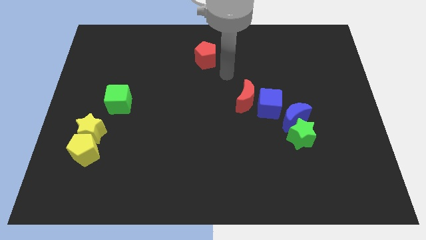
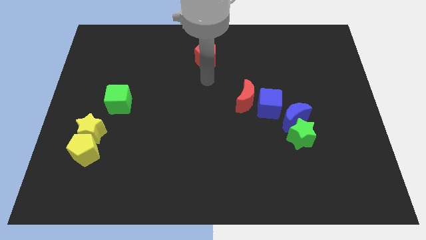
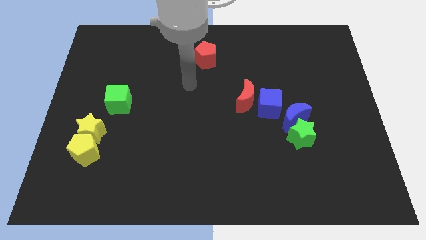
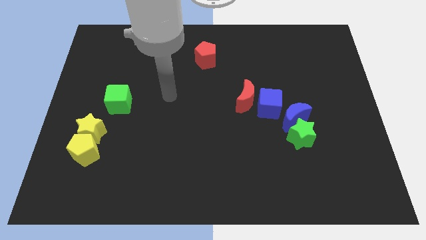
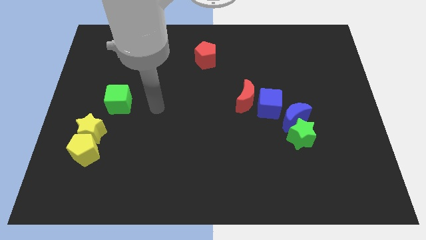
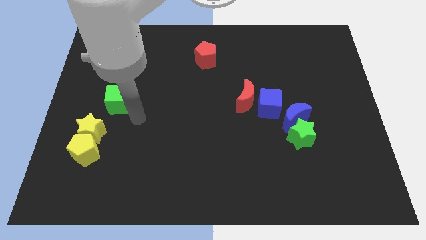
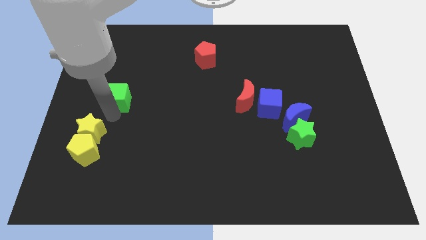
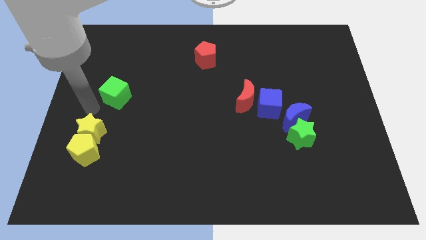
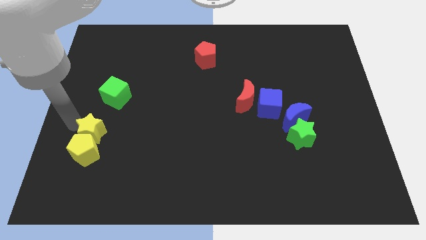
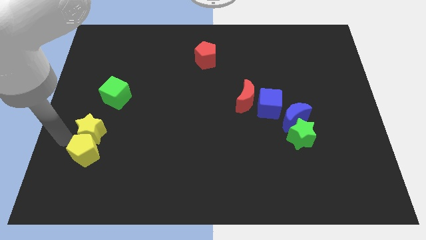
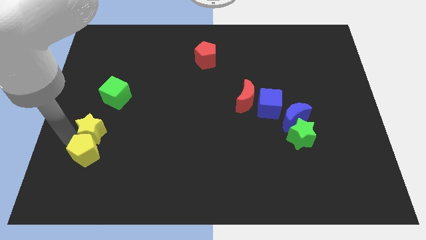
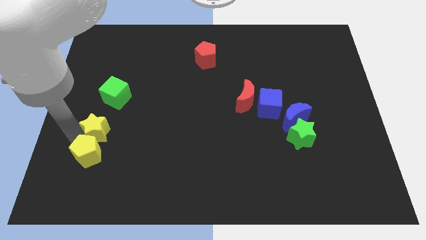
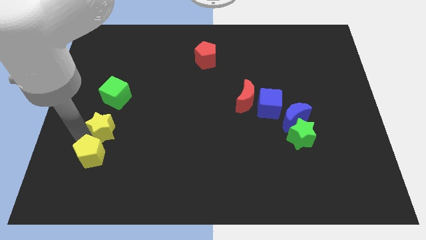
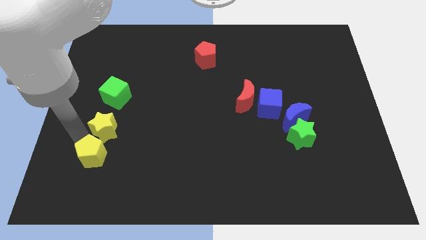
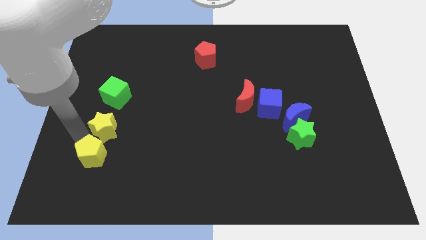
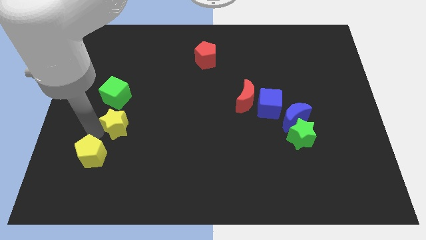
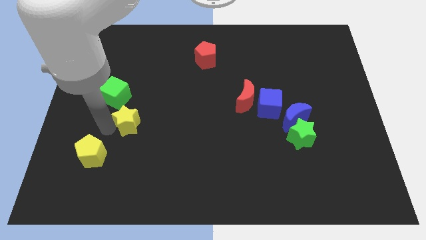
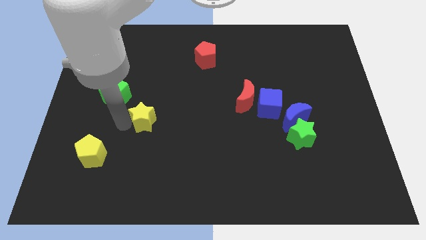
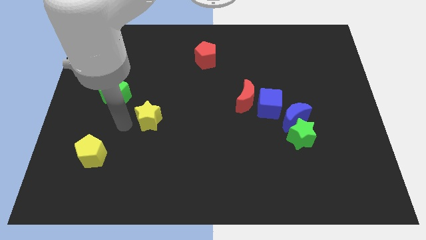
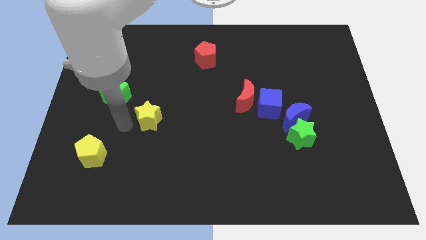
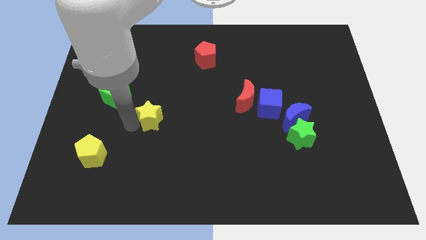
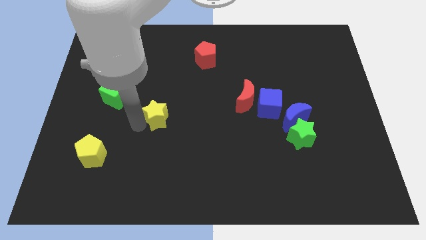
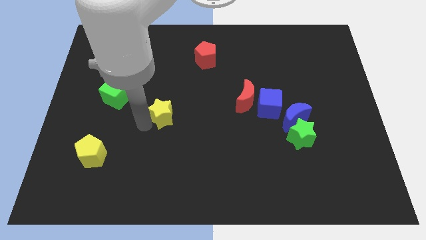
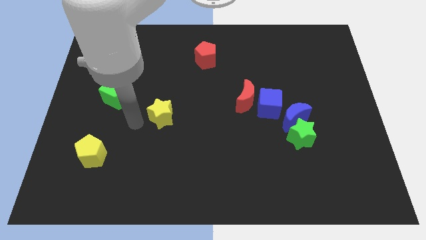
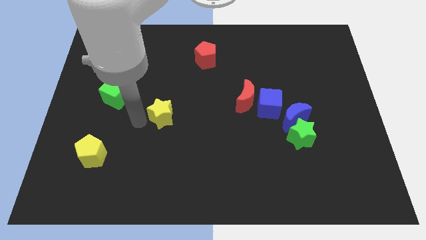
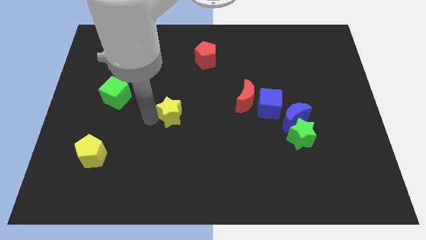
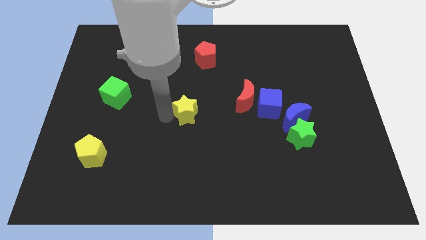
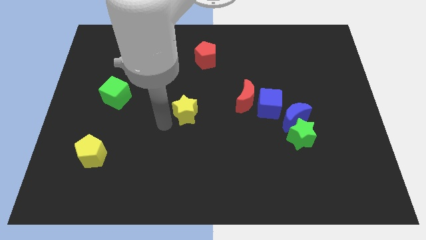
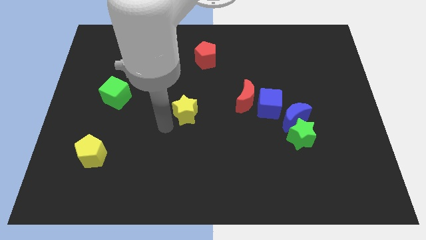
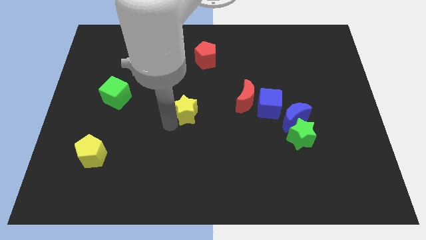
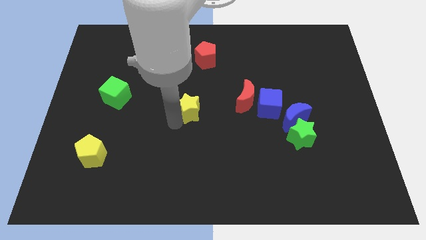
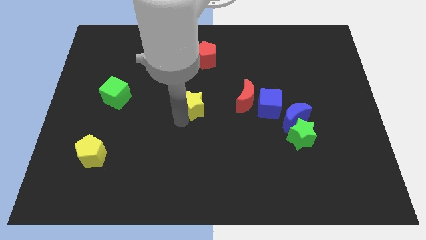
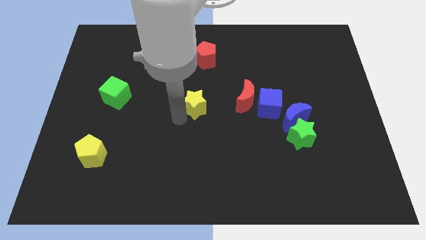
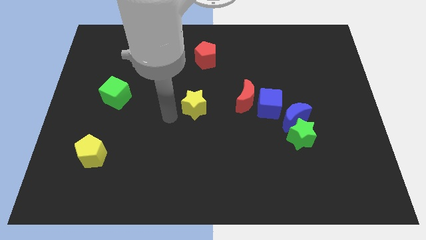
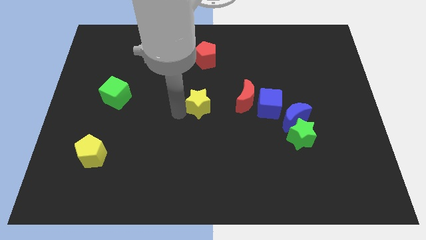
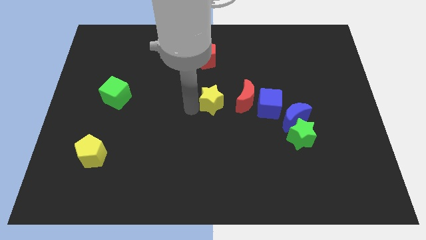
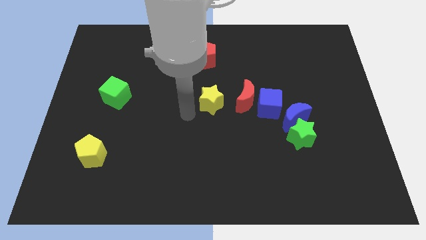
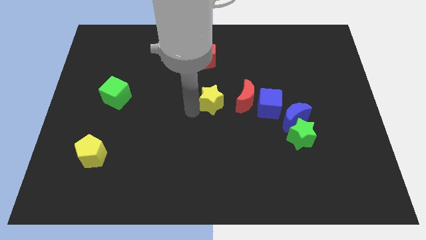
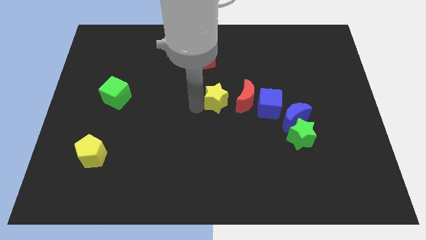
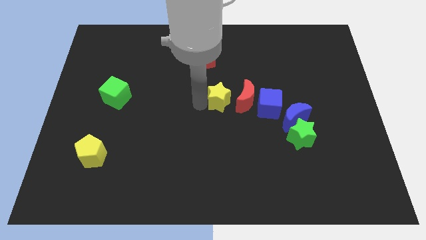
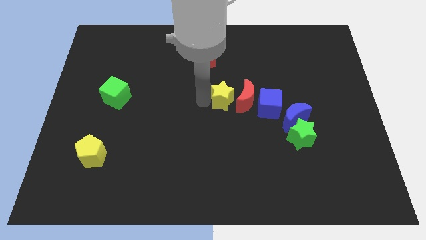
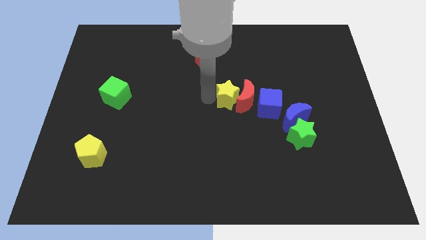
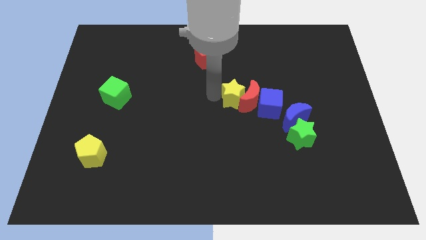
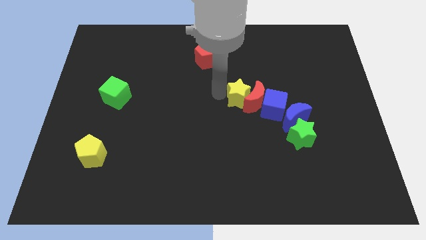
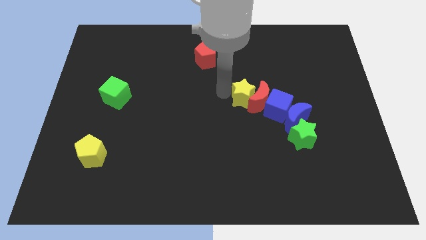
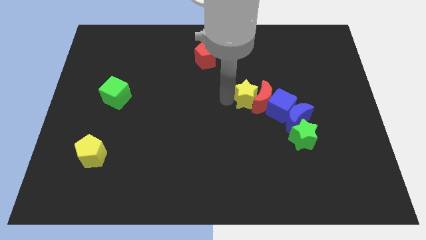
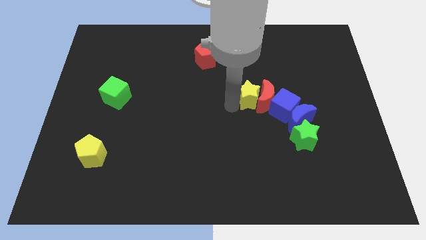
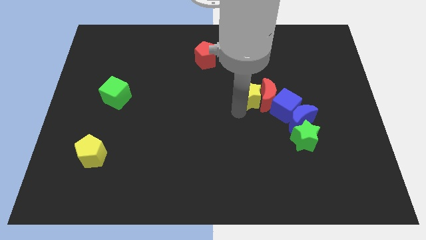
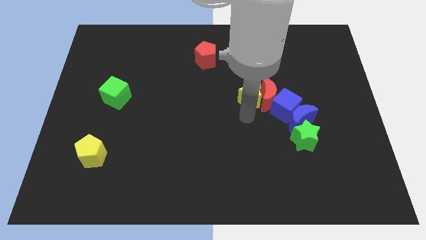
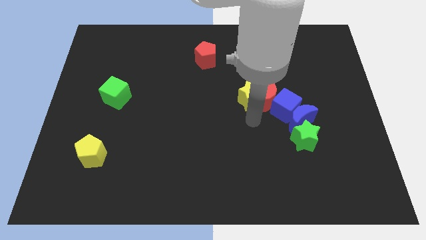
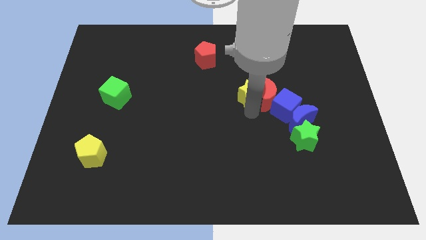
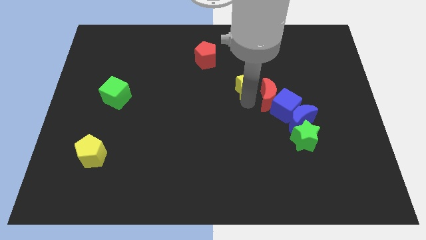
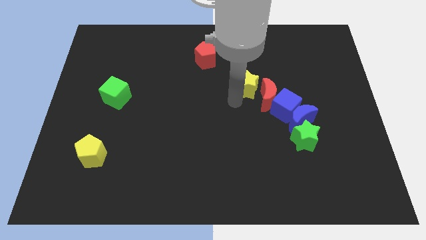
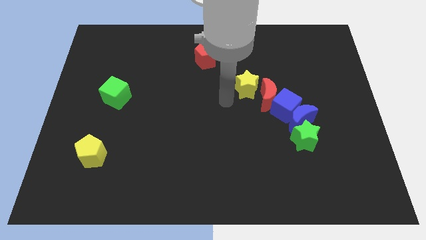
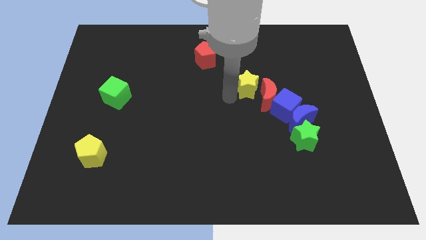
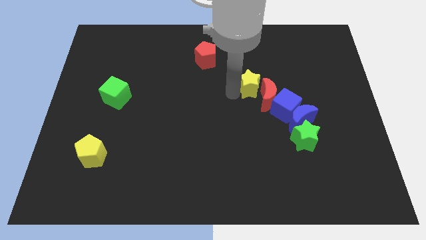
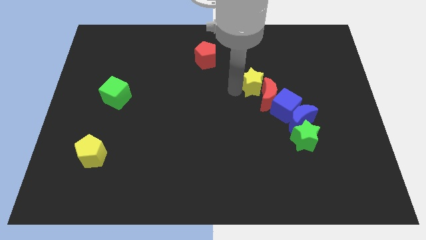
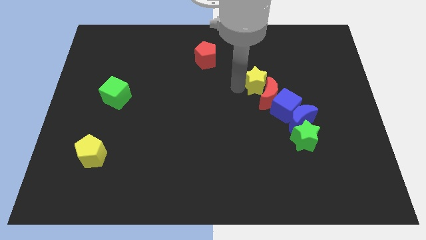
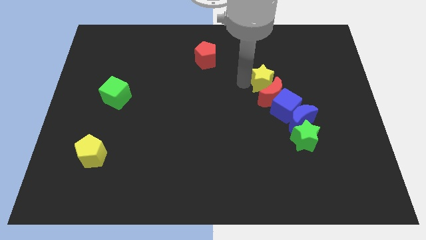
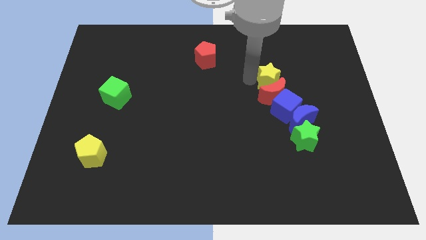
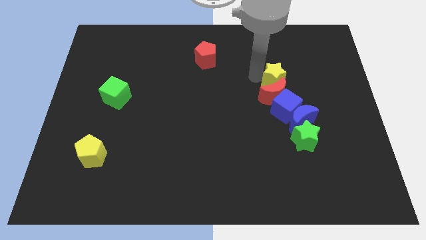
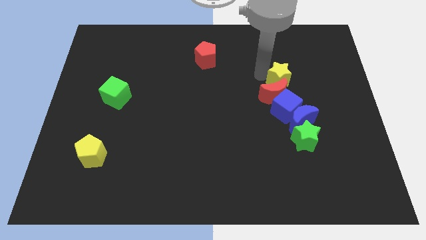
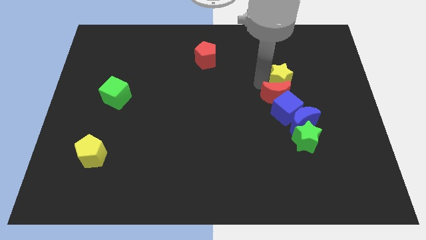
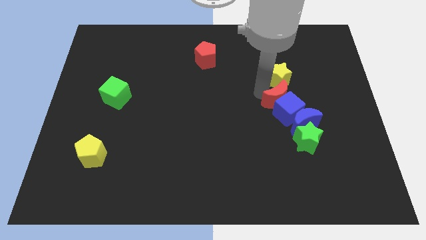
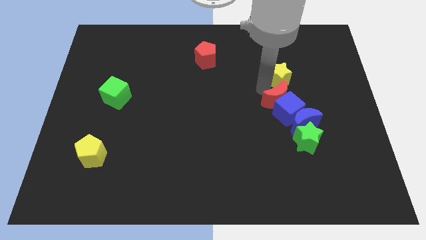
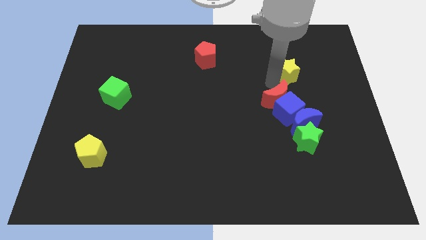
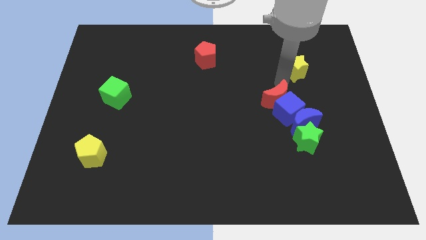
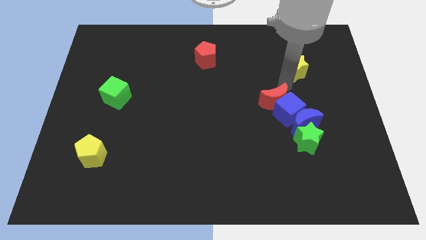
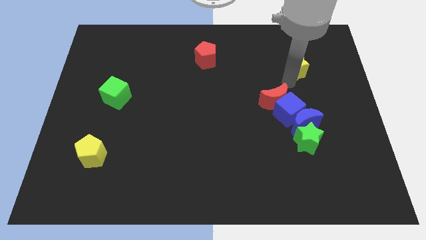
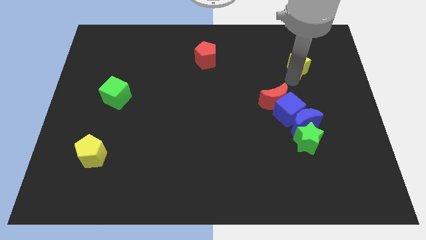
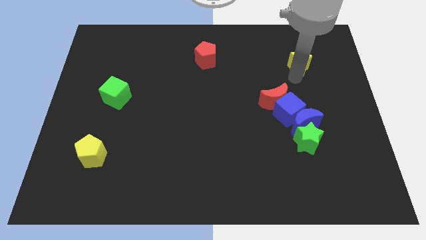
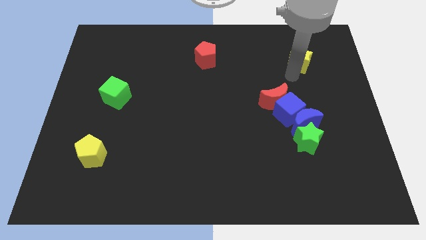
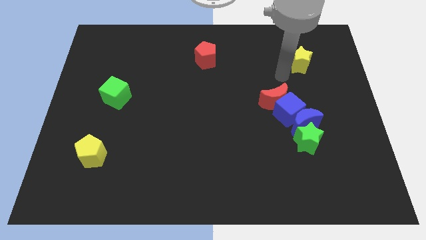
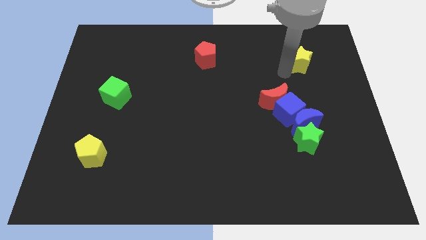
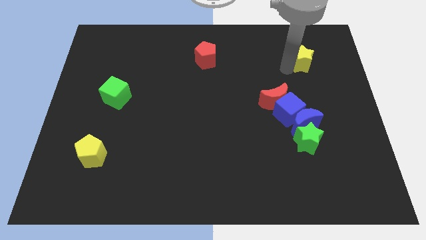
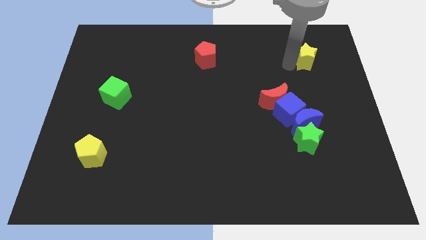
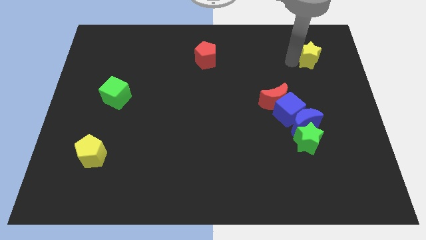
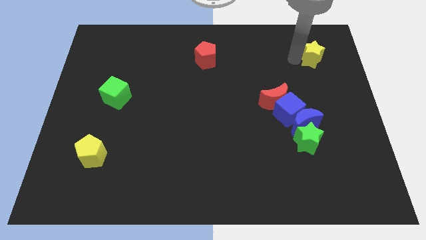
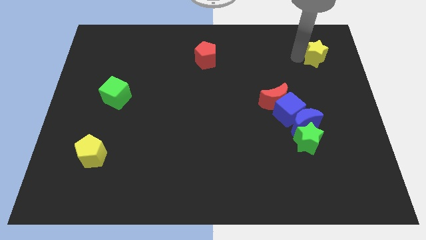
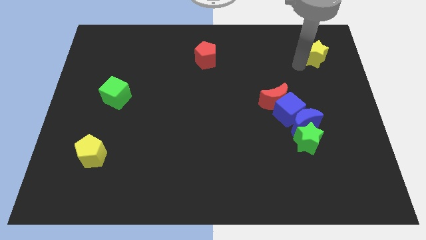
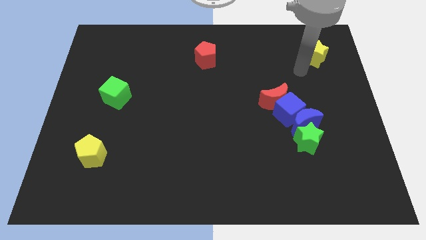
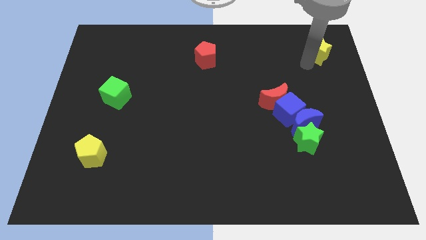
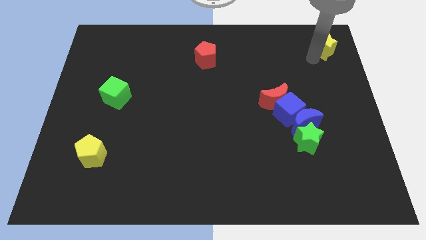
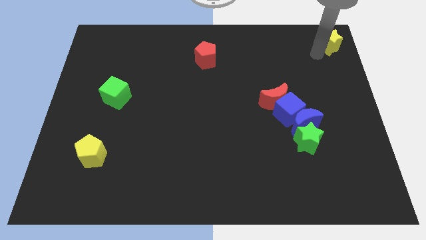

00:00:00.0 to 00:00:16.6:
put the yellow star to the top right corner
